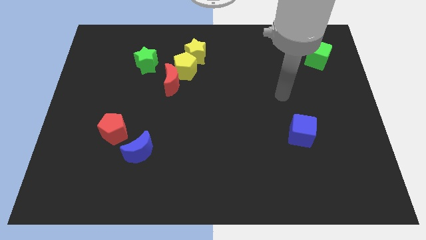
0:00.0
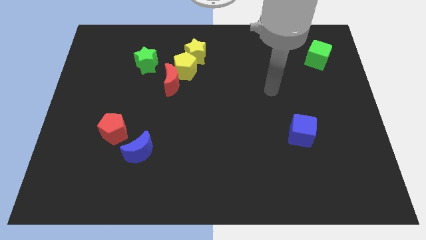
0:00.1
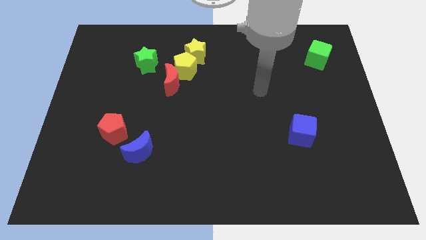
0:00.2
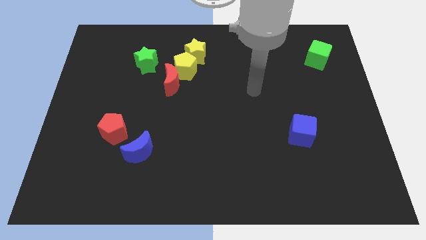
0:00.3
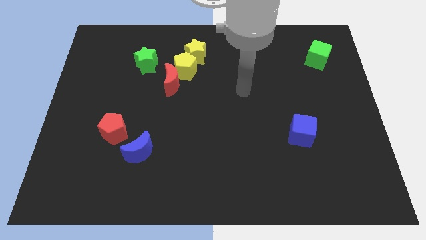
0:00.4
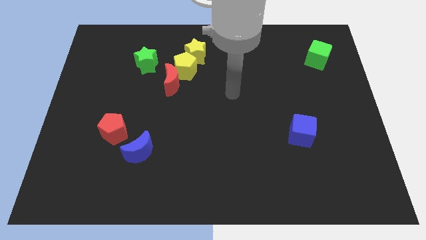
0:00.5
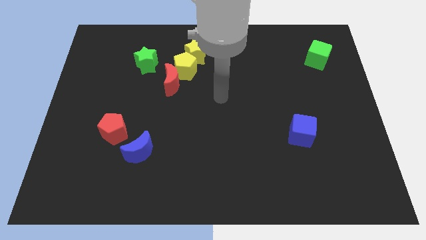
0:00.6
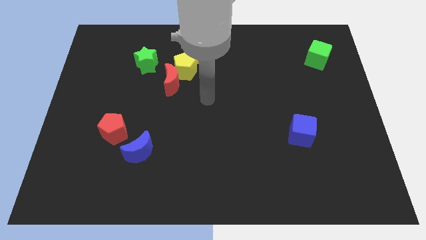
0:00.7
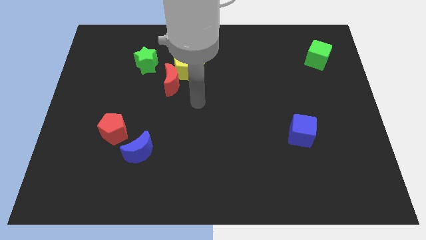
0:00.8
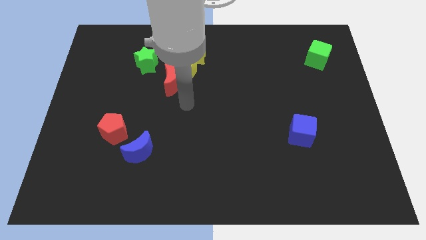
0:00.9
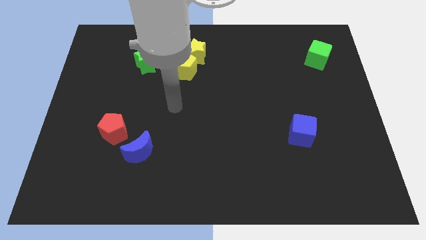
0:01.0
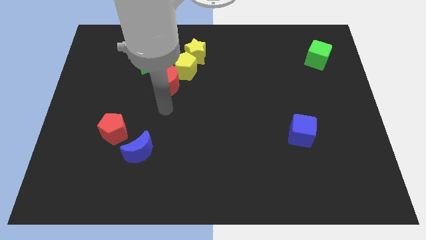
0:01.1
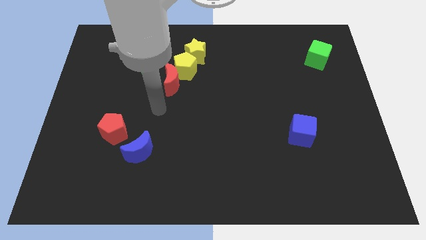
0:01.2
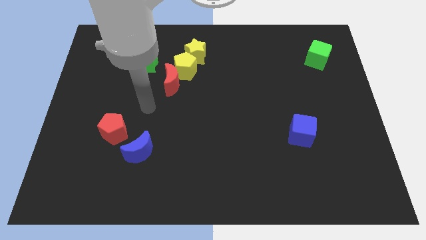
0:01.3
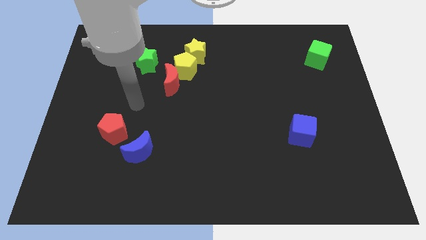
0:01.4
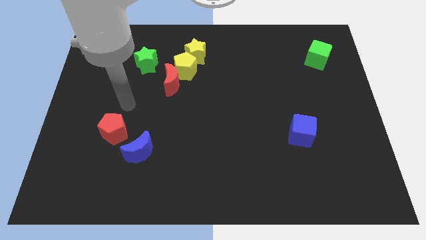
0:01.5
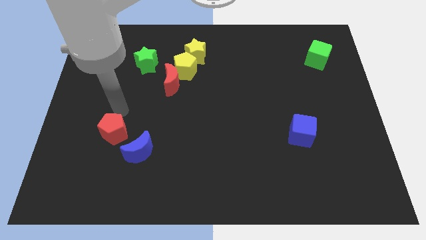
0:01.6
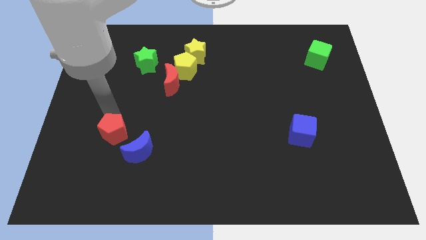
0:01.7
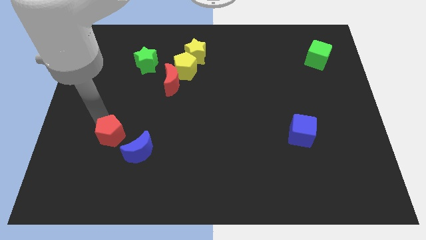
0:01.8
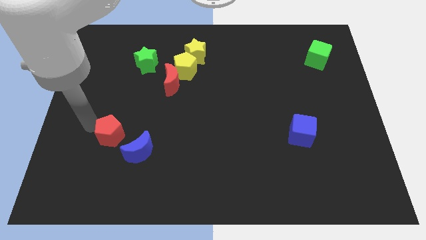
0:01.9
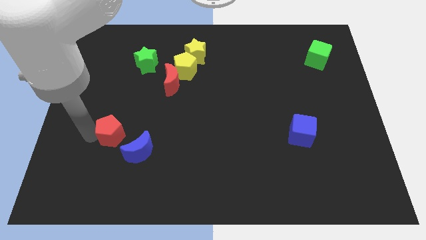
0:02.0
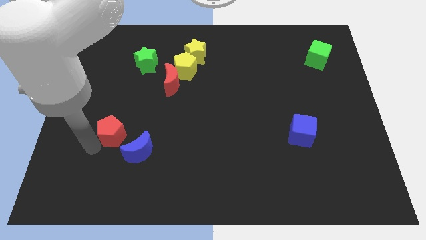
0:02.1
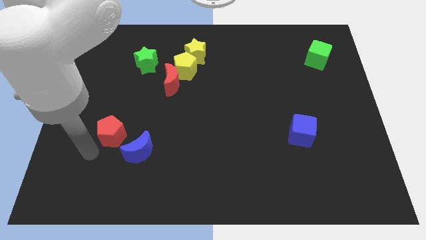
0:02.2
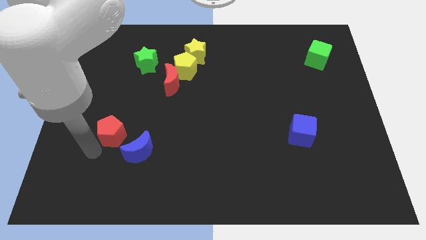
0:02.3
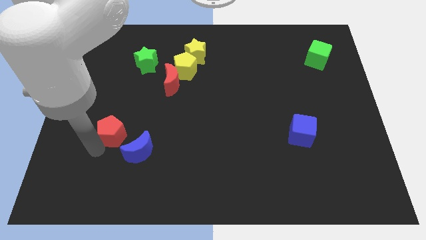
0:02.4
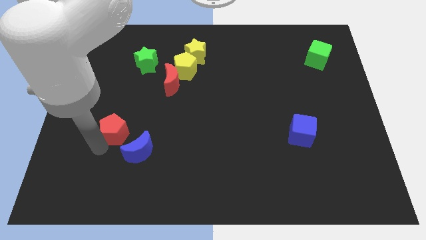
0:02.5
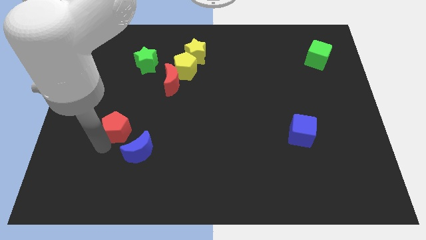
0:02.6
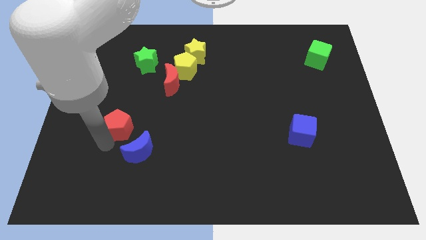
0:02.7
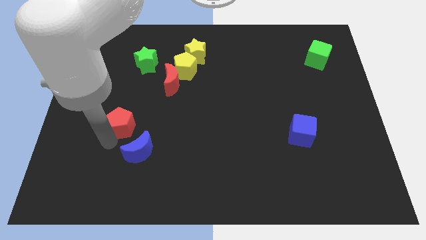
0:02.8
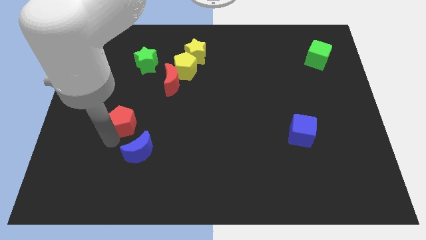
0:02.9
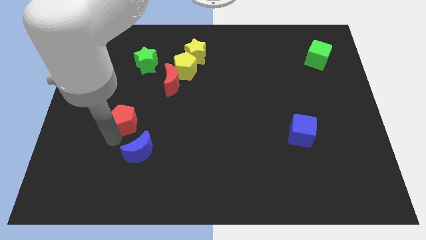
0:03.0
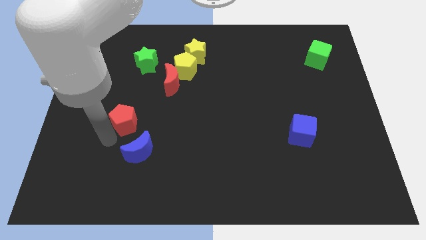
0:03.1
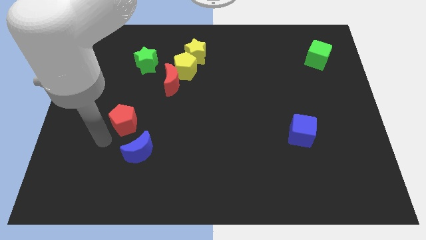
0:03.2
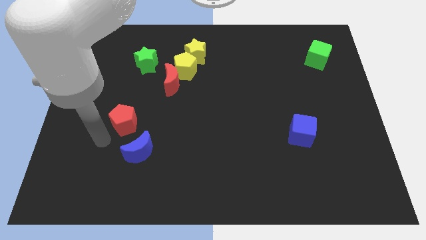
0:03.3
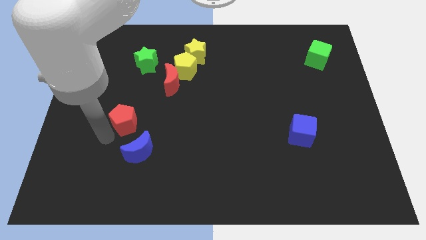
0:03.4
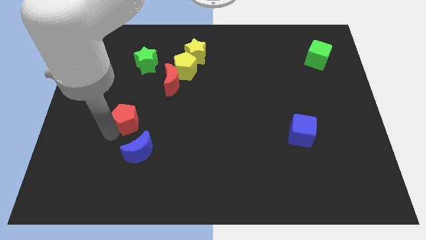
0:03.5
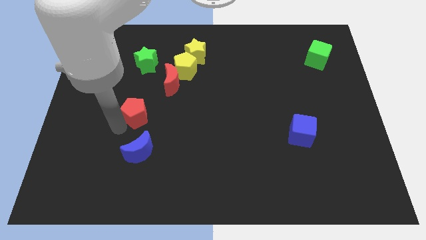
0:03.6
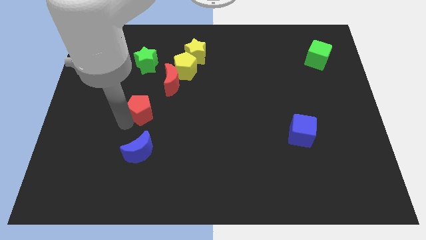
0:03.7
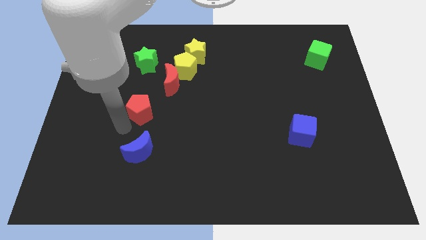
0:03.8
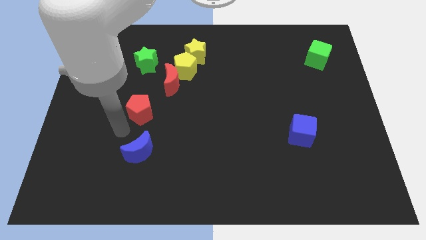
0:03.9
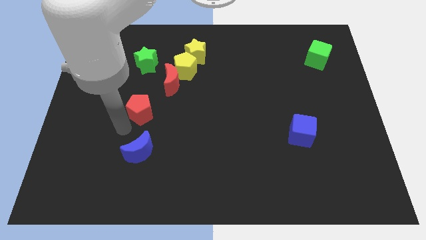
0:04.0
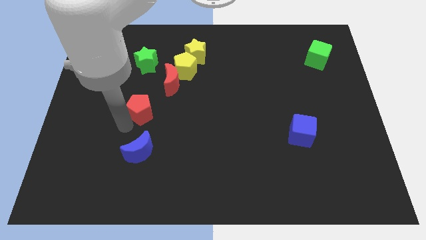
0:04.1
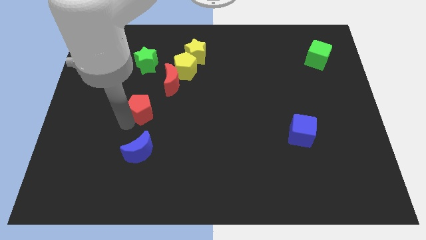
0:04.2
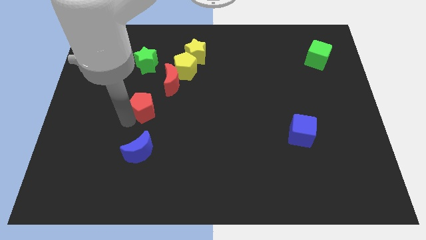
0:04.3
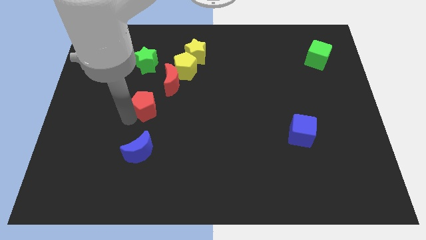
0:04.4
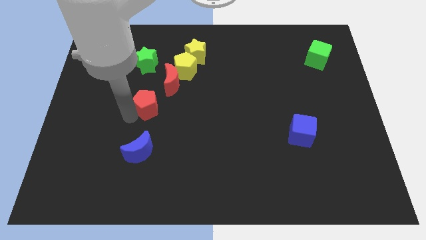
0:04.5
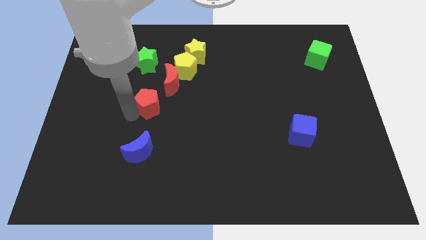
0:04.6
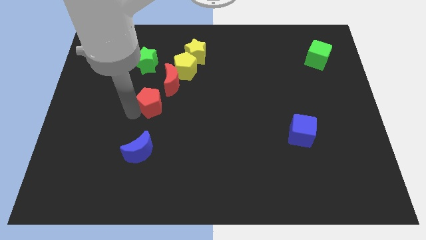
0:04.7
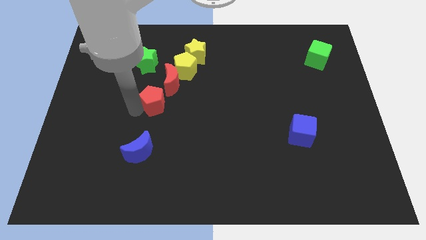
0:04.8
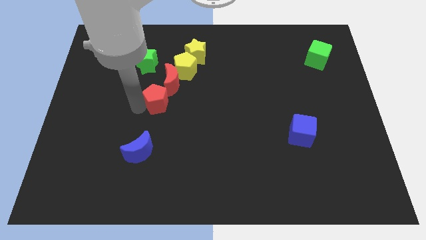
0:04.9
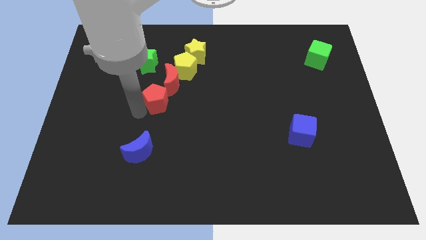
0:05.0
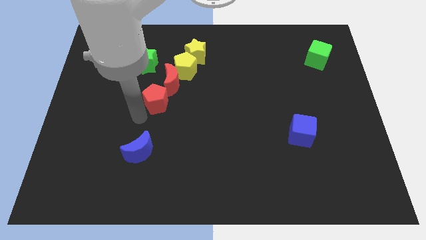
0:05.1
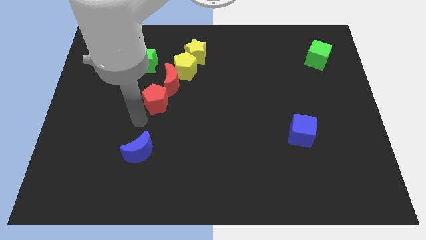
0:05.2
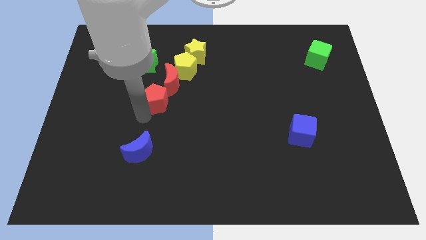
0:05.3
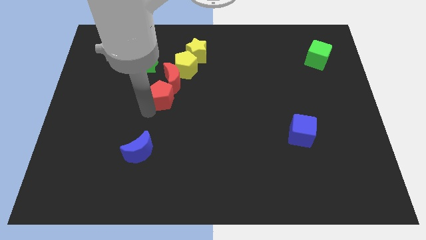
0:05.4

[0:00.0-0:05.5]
put the red pentagon to the red moon

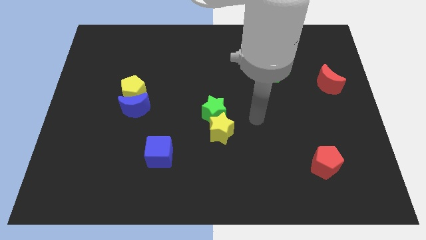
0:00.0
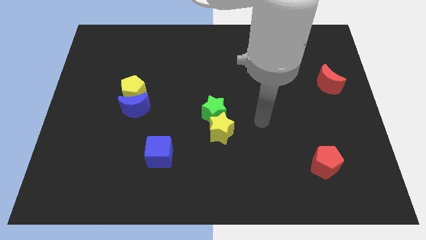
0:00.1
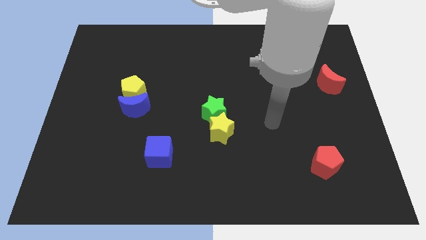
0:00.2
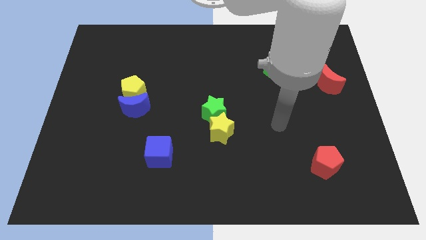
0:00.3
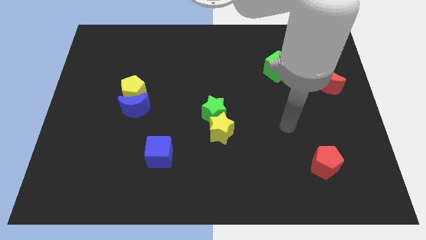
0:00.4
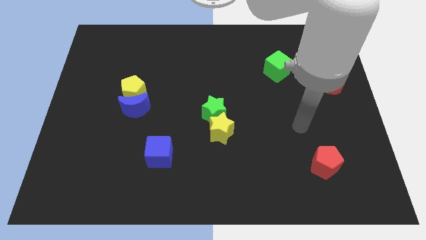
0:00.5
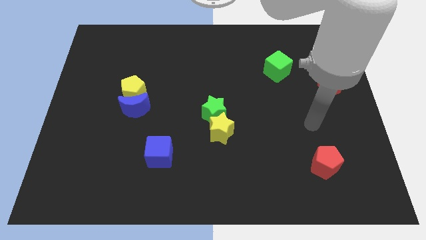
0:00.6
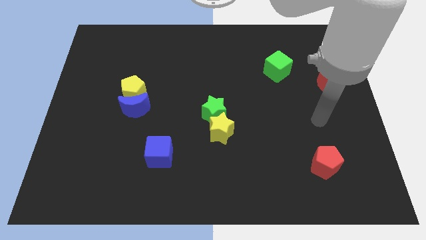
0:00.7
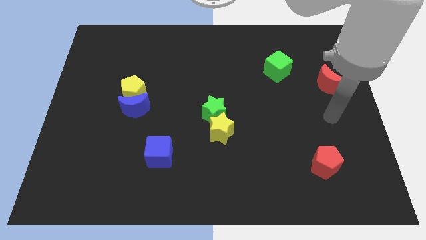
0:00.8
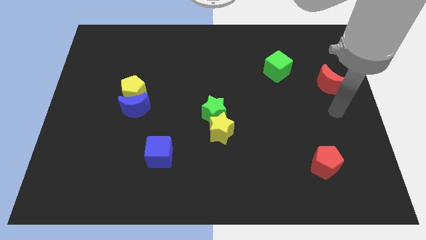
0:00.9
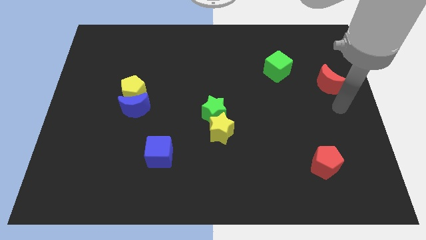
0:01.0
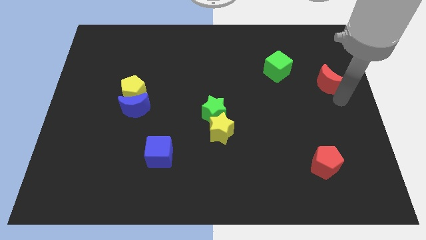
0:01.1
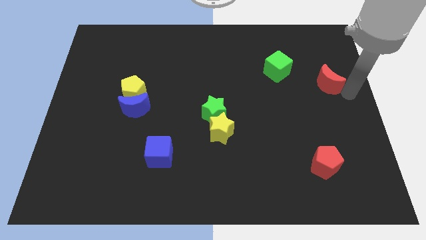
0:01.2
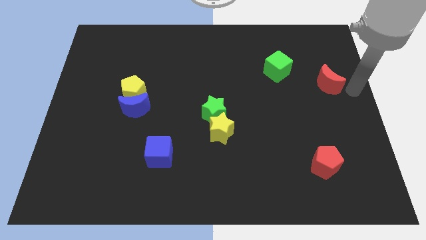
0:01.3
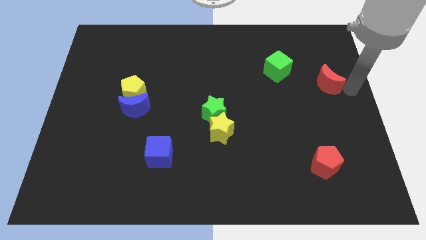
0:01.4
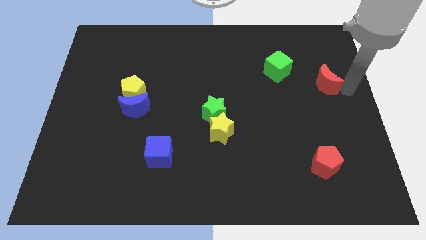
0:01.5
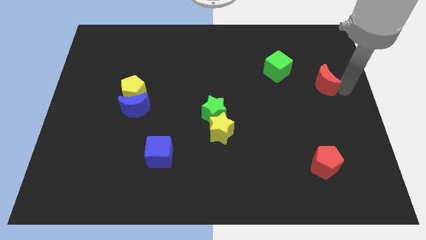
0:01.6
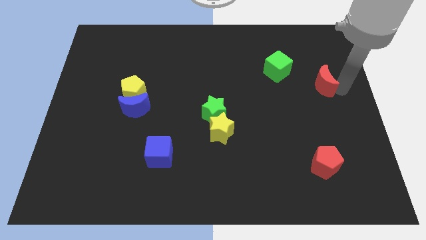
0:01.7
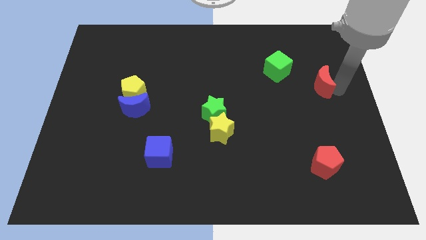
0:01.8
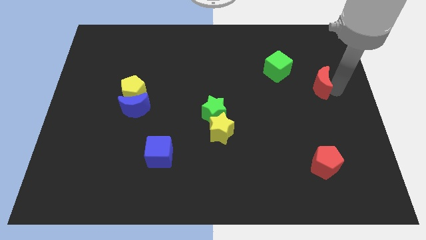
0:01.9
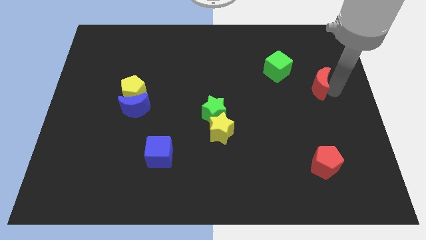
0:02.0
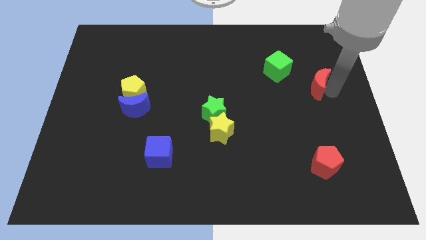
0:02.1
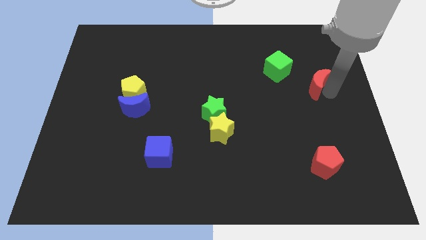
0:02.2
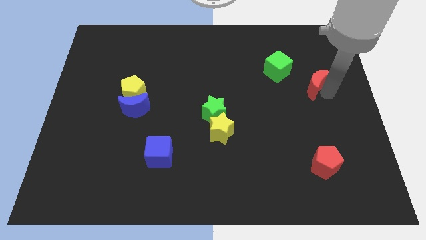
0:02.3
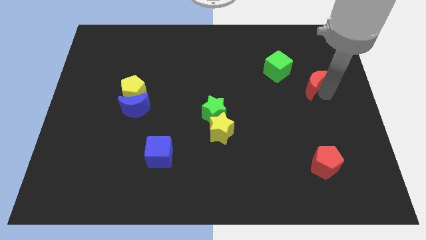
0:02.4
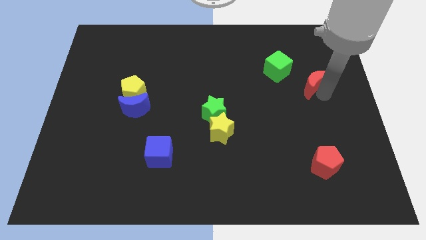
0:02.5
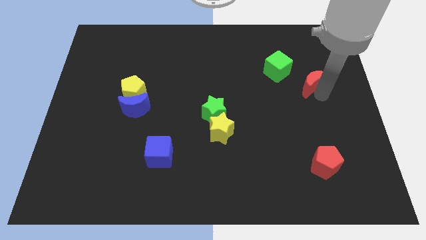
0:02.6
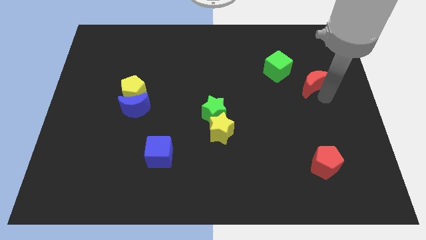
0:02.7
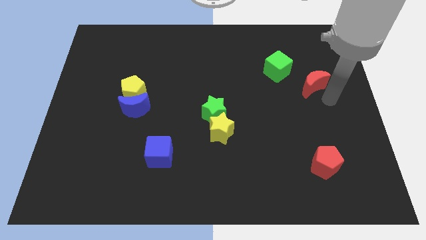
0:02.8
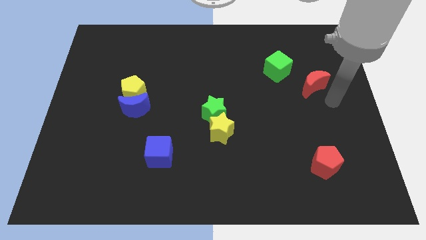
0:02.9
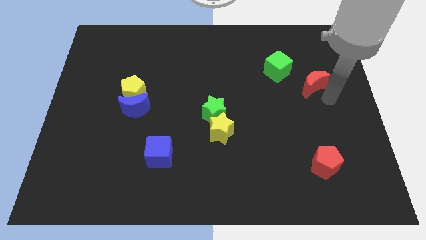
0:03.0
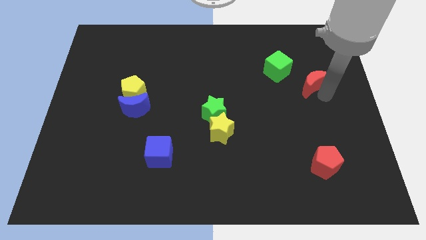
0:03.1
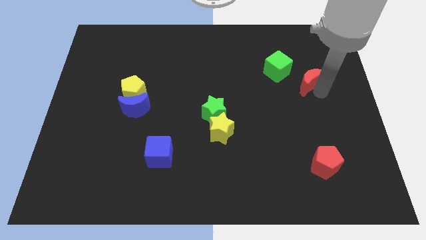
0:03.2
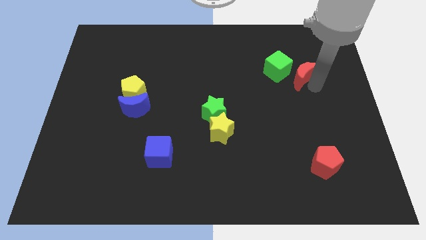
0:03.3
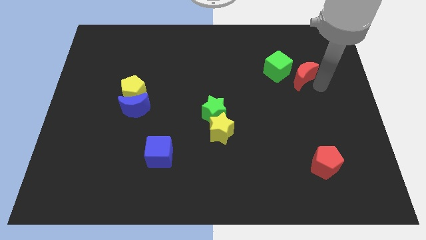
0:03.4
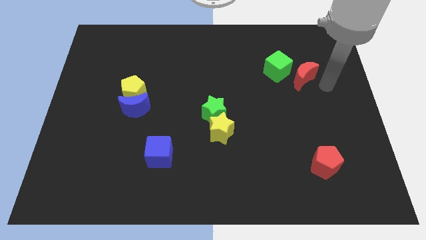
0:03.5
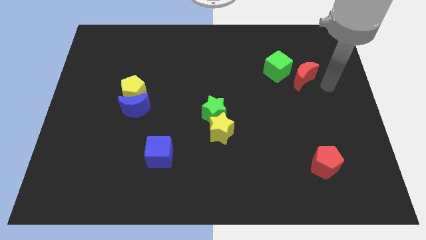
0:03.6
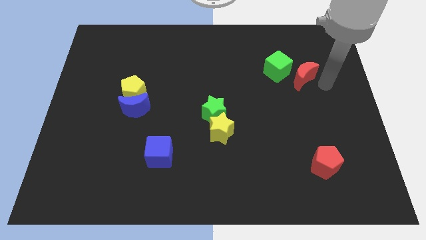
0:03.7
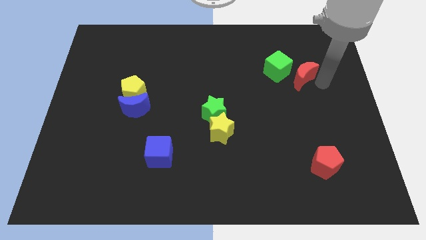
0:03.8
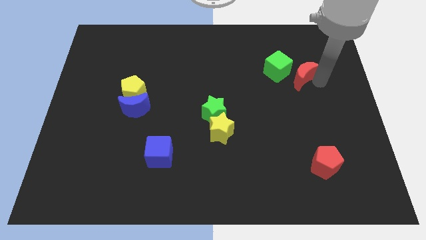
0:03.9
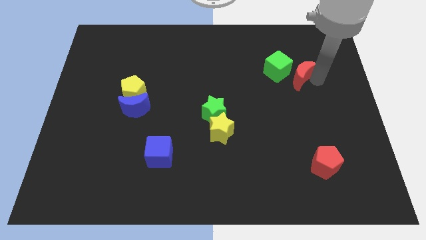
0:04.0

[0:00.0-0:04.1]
slide the red moon close to the green cube
